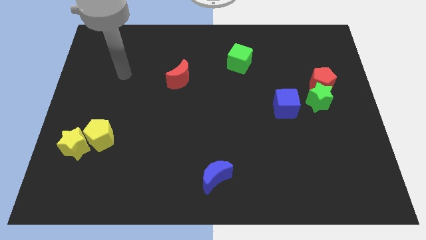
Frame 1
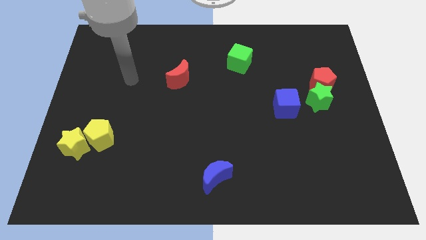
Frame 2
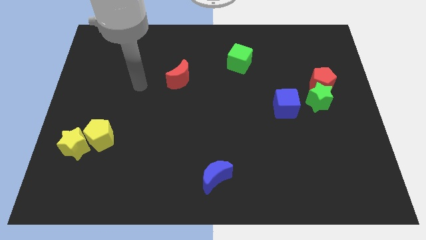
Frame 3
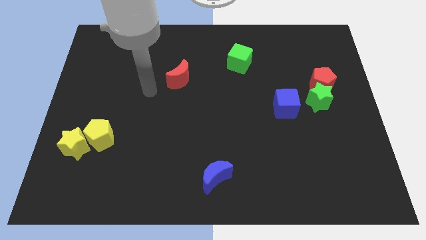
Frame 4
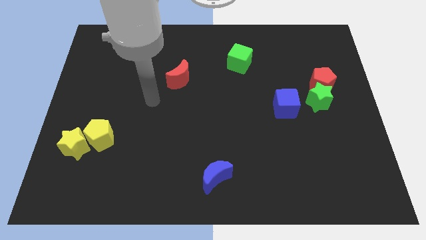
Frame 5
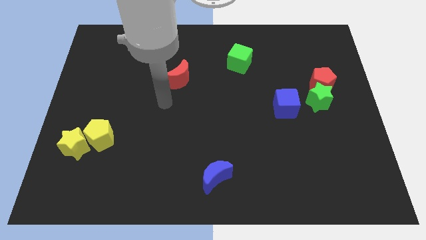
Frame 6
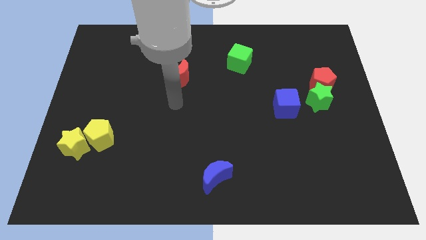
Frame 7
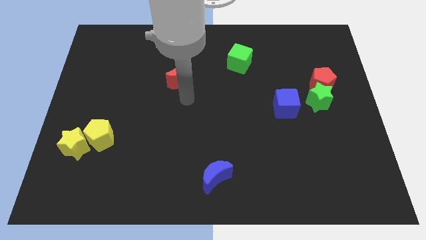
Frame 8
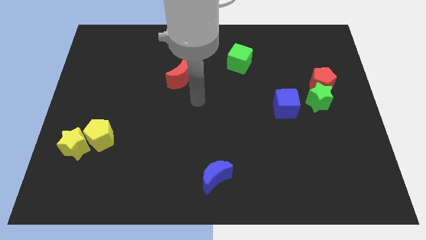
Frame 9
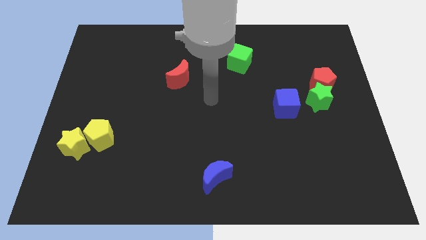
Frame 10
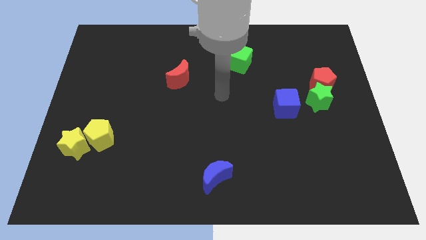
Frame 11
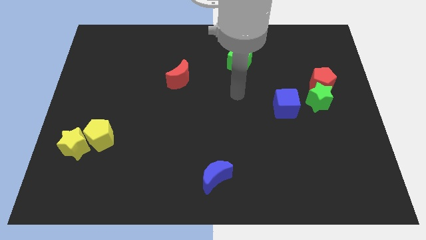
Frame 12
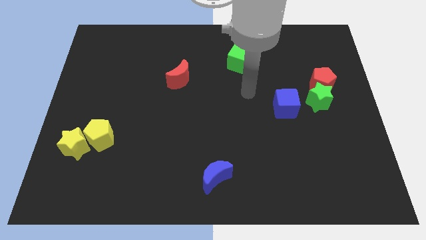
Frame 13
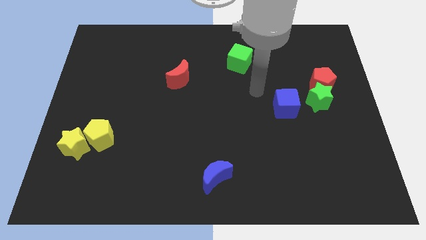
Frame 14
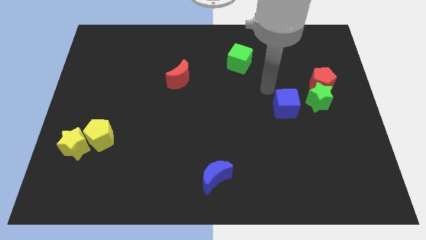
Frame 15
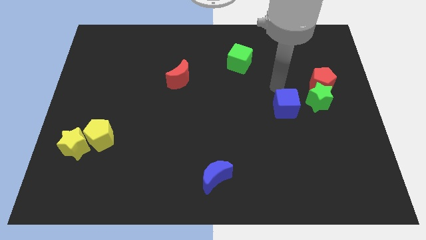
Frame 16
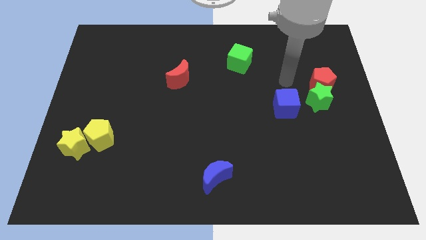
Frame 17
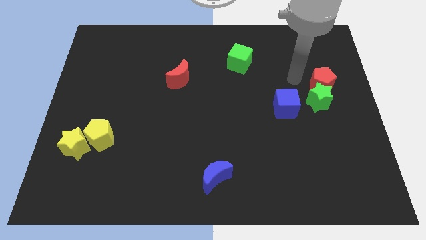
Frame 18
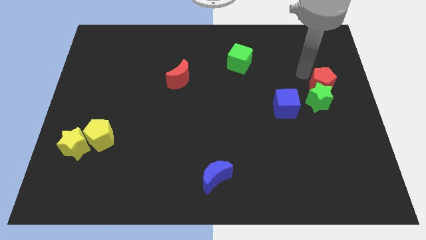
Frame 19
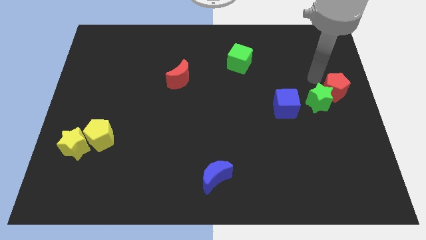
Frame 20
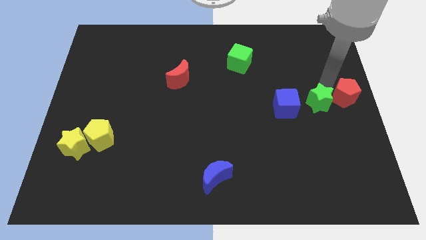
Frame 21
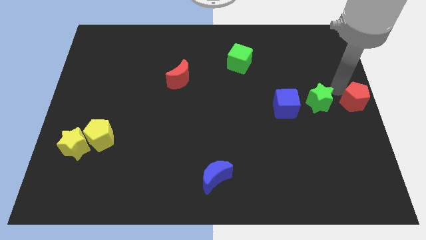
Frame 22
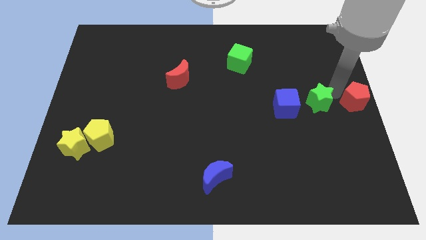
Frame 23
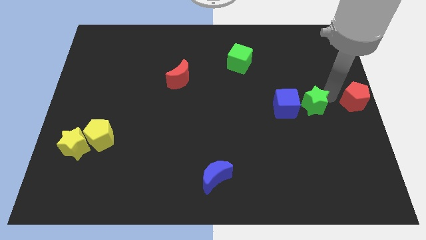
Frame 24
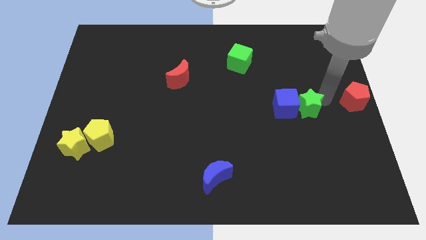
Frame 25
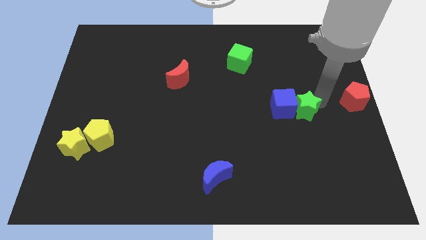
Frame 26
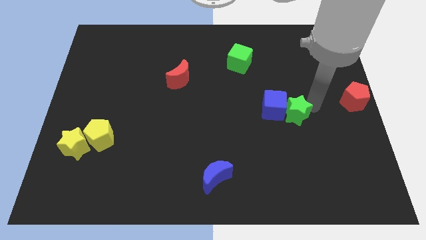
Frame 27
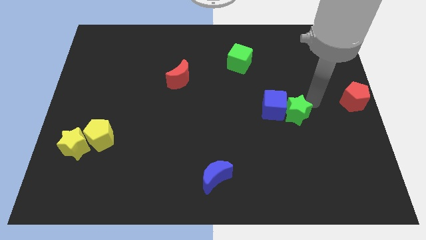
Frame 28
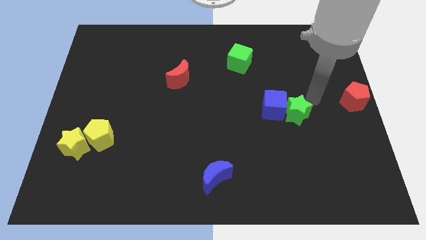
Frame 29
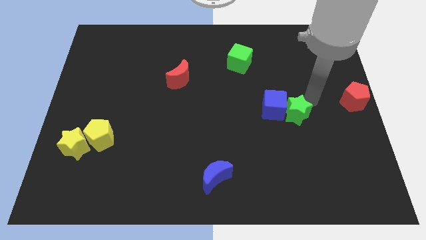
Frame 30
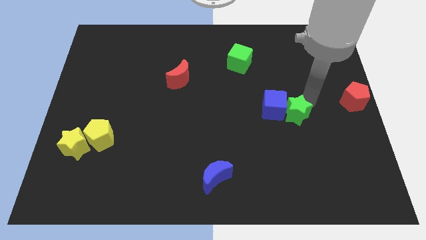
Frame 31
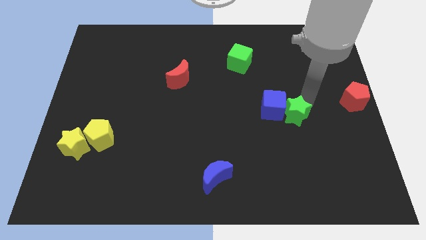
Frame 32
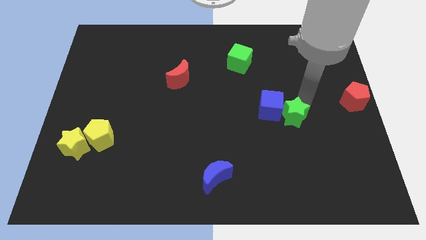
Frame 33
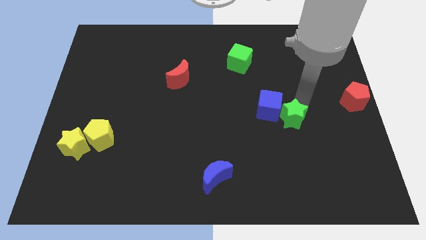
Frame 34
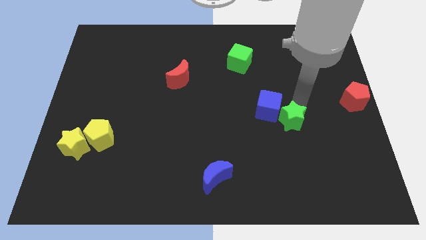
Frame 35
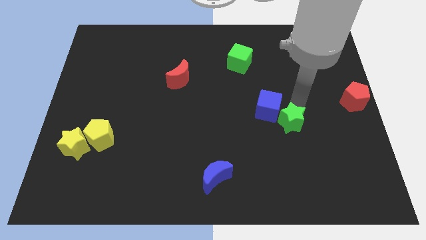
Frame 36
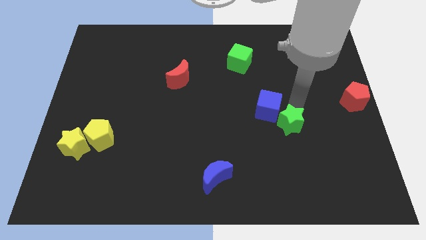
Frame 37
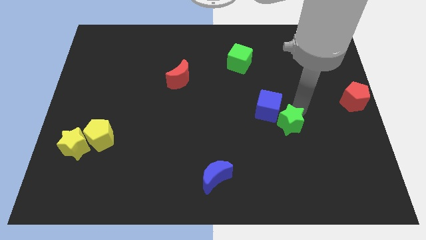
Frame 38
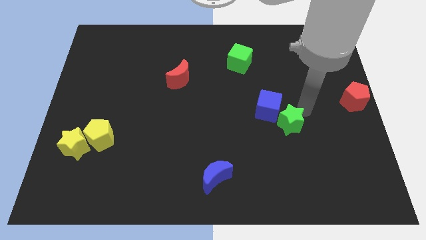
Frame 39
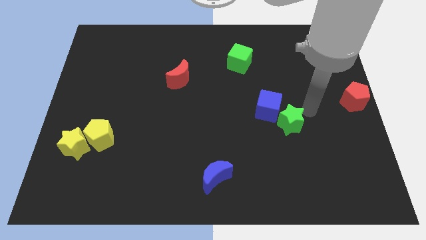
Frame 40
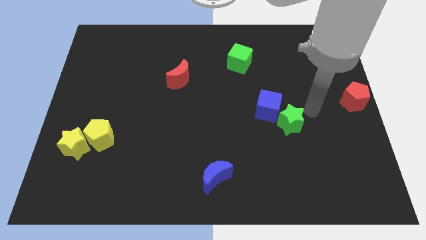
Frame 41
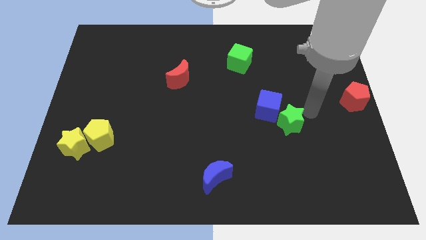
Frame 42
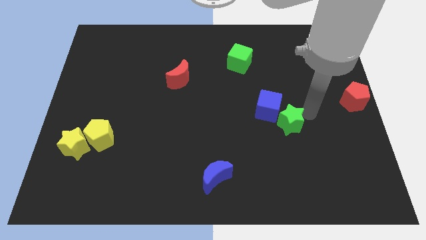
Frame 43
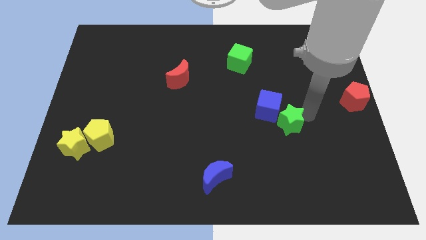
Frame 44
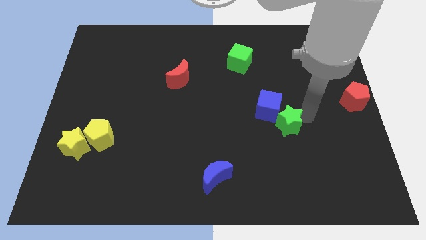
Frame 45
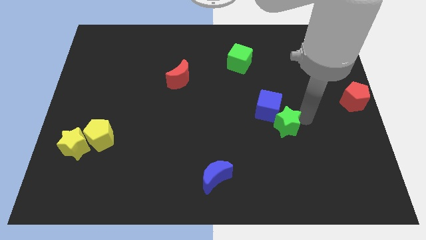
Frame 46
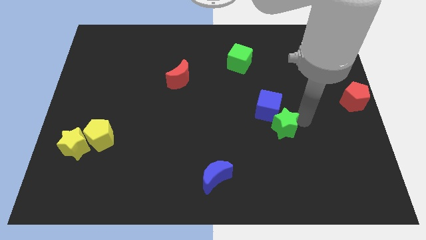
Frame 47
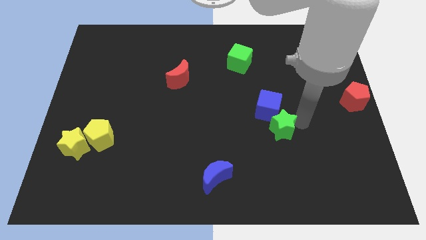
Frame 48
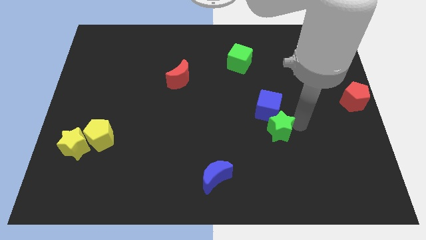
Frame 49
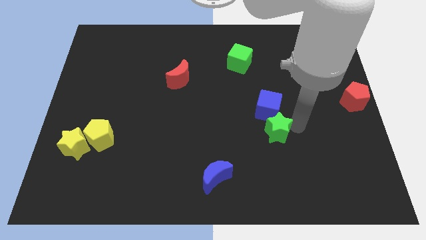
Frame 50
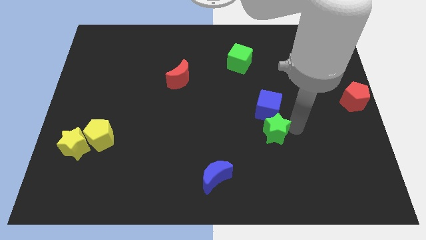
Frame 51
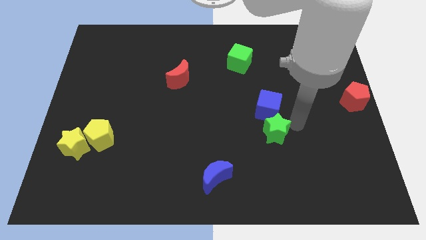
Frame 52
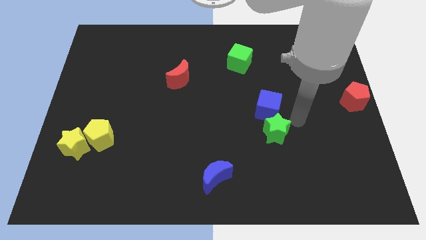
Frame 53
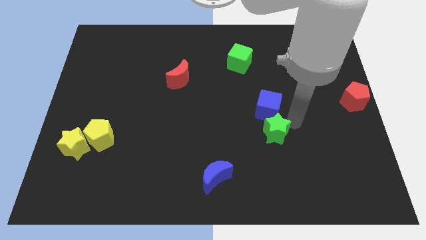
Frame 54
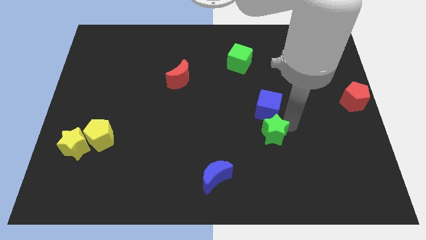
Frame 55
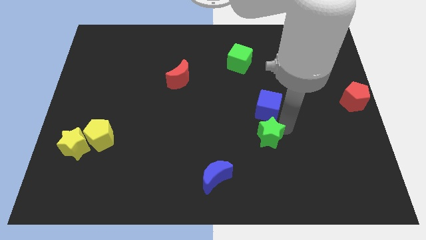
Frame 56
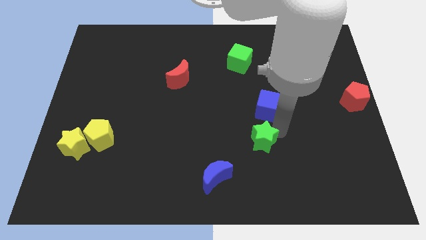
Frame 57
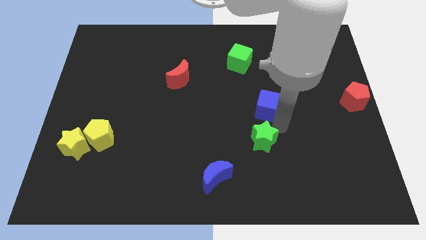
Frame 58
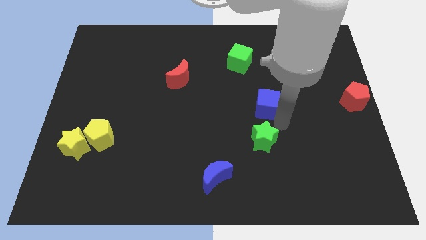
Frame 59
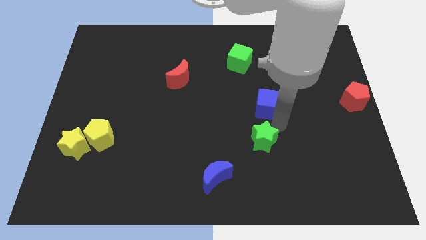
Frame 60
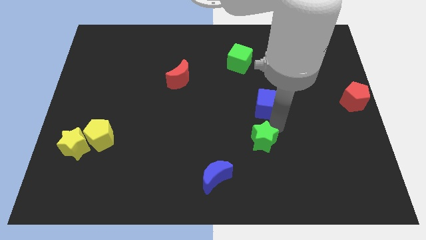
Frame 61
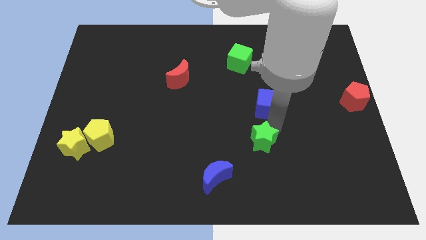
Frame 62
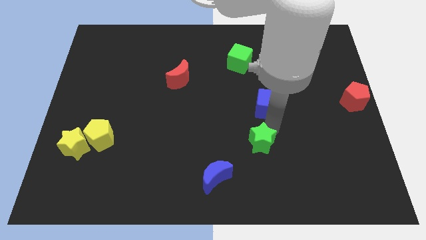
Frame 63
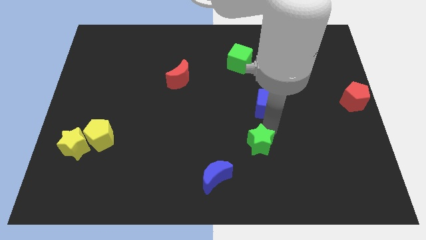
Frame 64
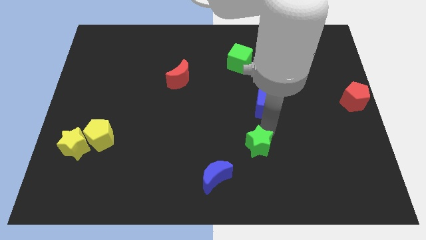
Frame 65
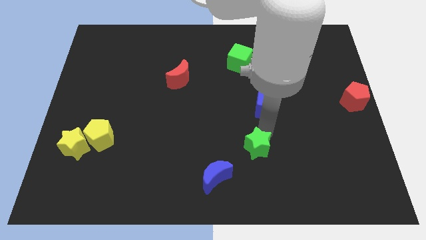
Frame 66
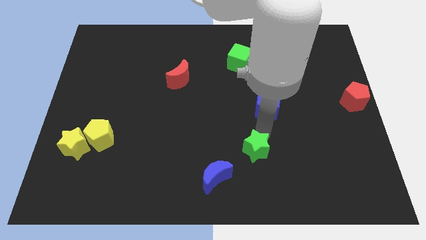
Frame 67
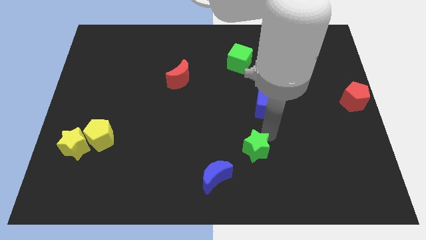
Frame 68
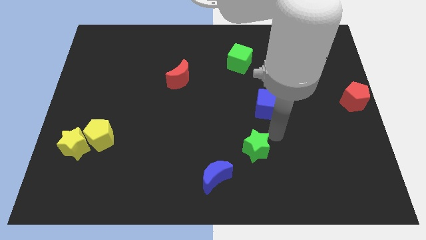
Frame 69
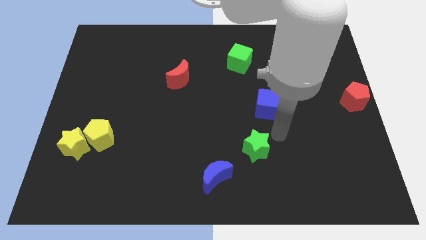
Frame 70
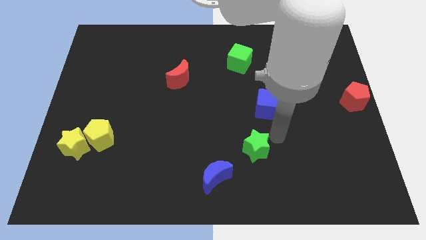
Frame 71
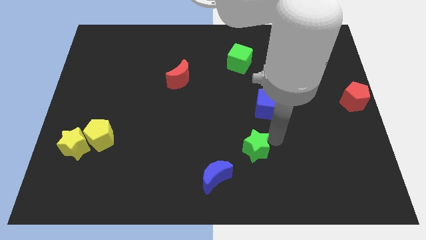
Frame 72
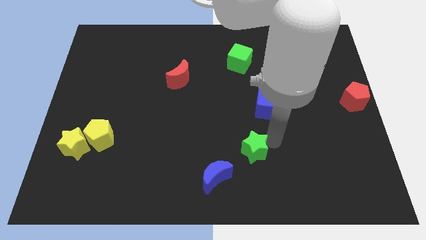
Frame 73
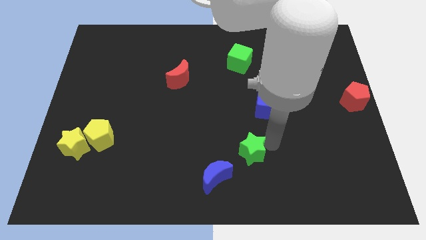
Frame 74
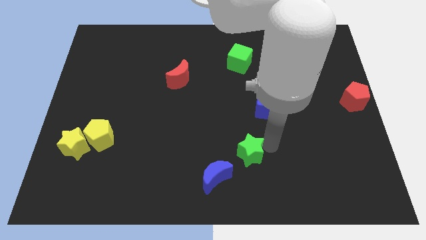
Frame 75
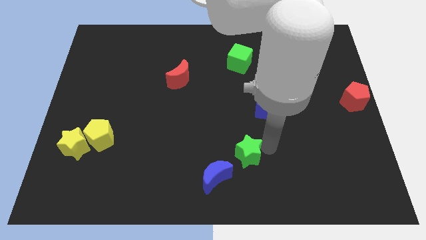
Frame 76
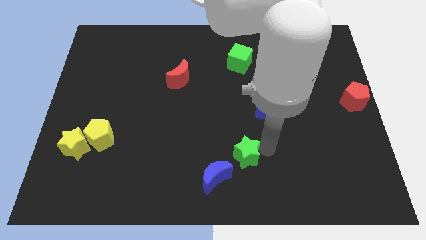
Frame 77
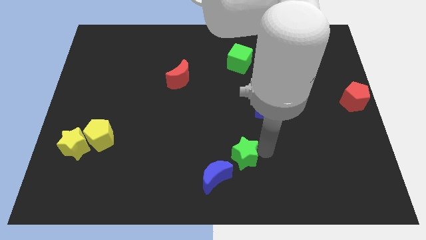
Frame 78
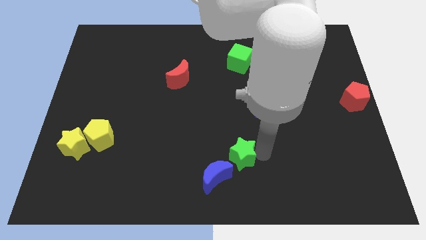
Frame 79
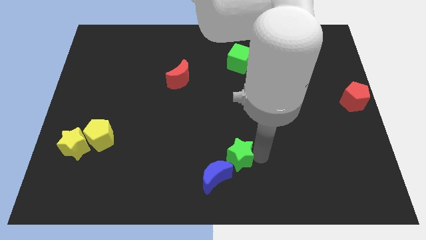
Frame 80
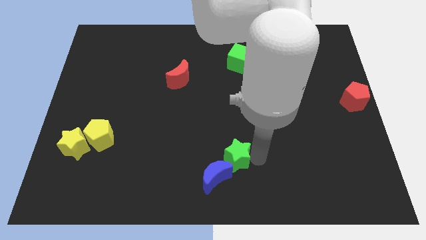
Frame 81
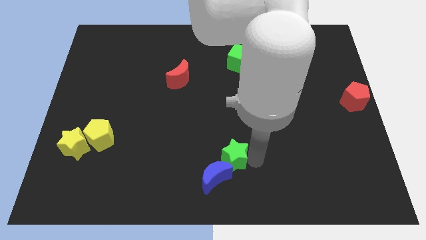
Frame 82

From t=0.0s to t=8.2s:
push the green star to the blue moon
